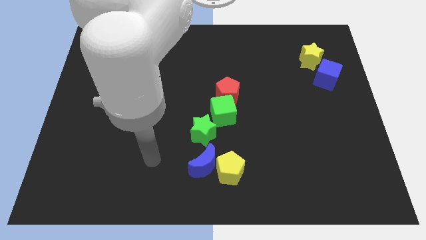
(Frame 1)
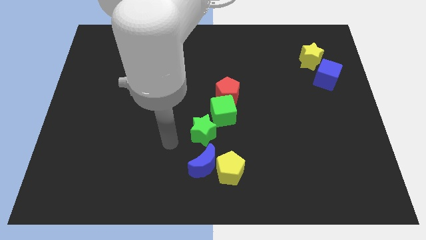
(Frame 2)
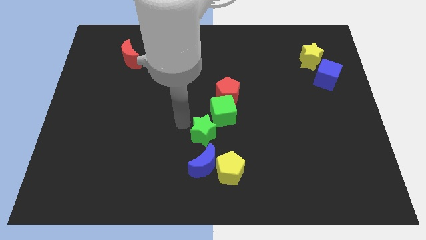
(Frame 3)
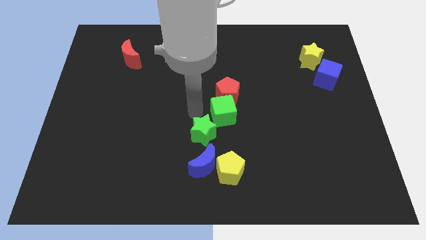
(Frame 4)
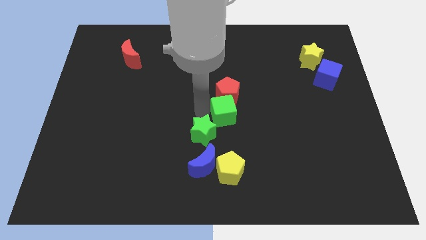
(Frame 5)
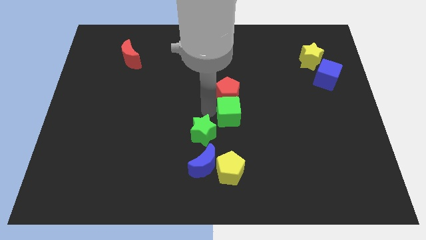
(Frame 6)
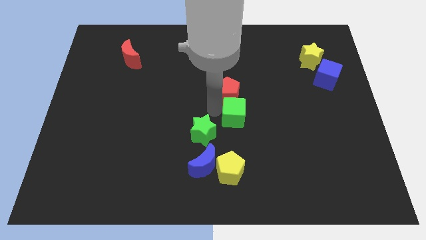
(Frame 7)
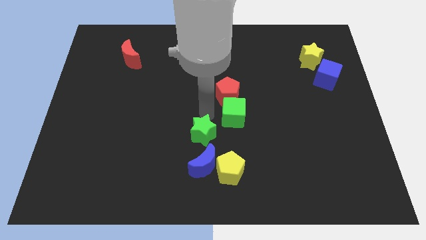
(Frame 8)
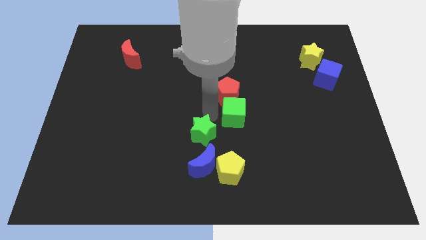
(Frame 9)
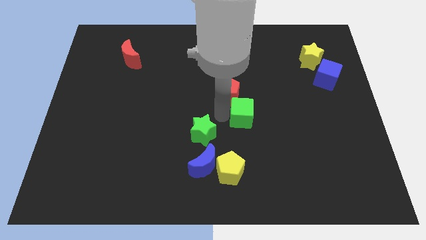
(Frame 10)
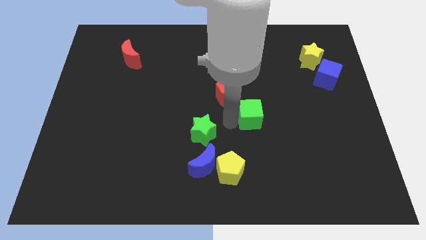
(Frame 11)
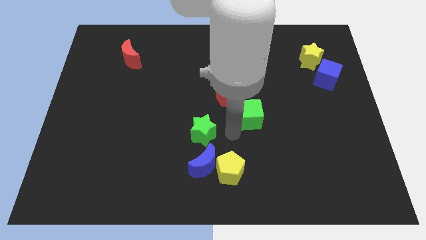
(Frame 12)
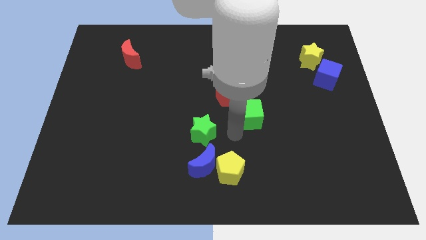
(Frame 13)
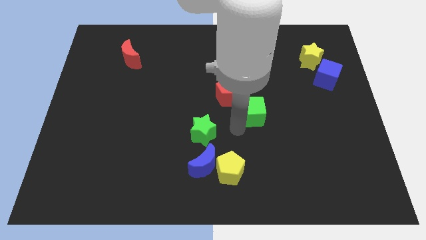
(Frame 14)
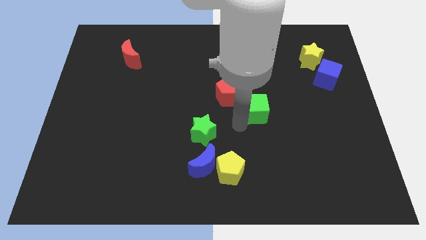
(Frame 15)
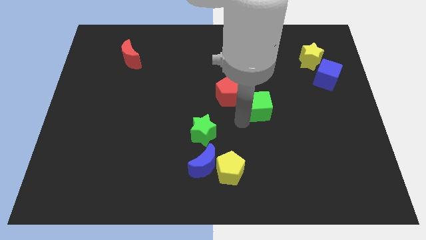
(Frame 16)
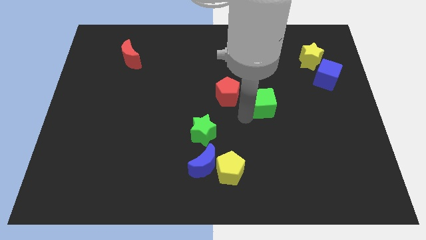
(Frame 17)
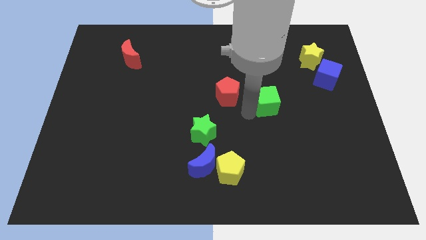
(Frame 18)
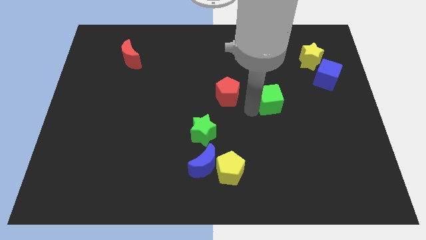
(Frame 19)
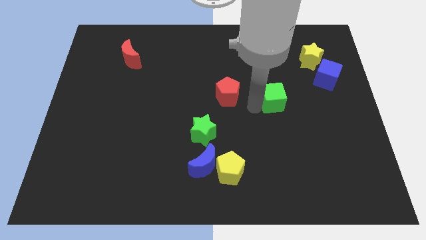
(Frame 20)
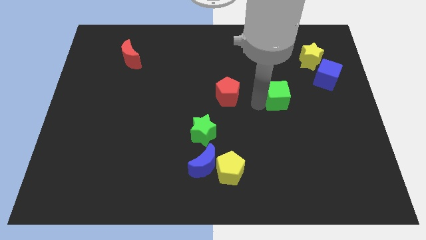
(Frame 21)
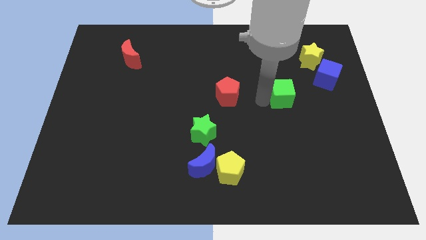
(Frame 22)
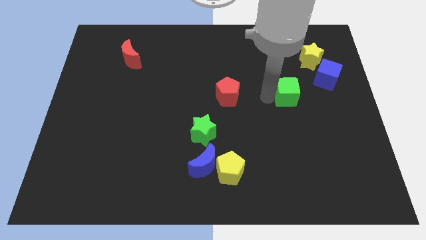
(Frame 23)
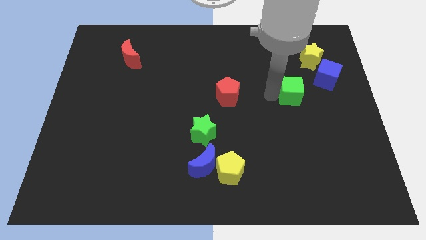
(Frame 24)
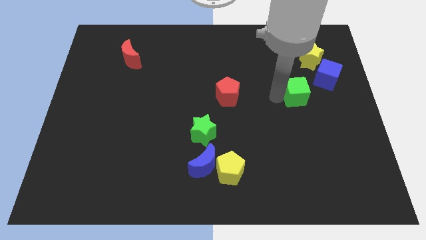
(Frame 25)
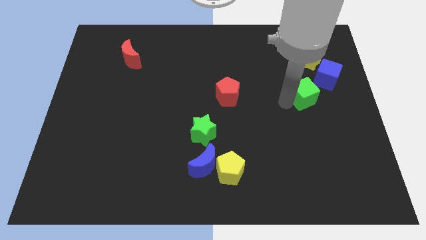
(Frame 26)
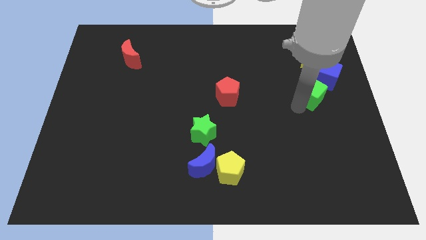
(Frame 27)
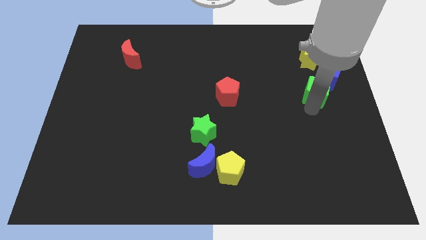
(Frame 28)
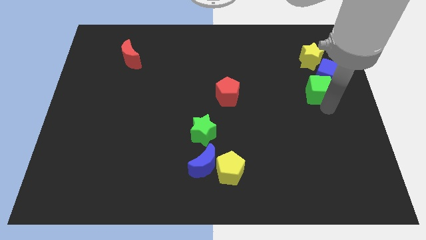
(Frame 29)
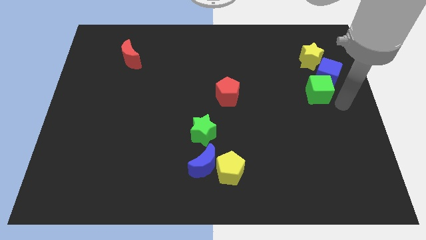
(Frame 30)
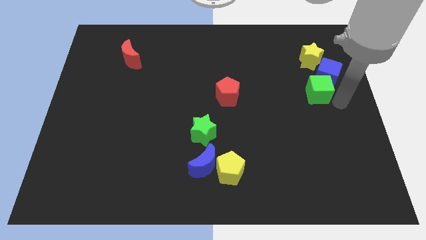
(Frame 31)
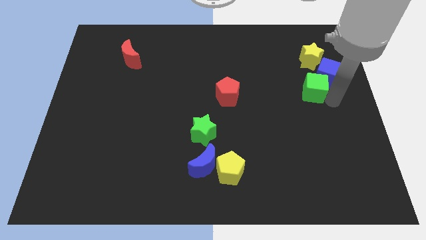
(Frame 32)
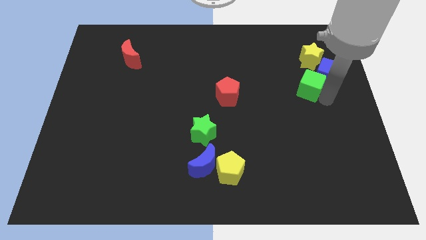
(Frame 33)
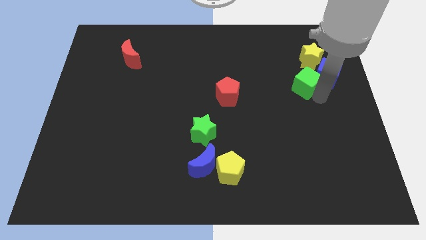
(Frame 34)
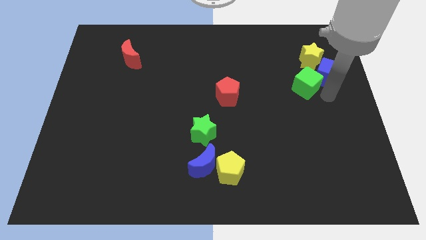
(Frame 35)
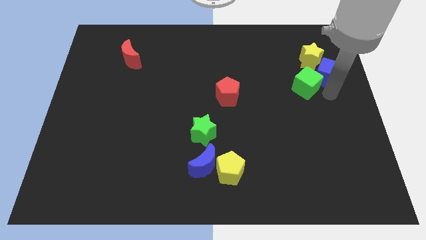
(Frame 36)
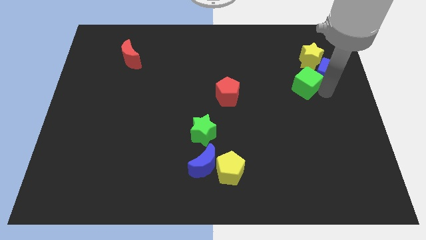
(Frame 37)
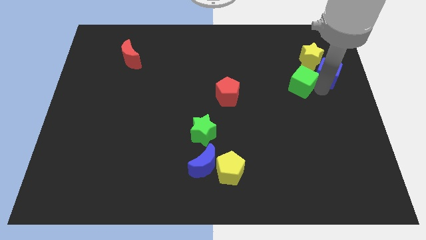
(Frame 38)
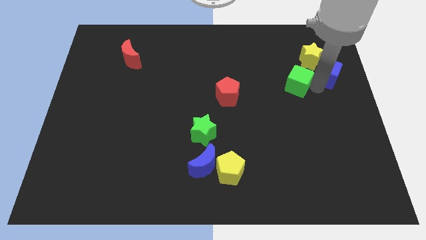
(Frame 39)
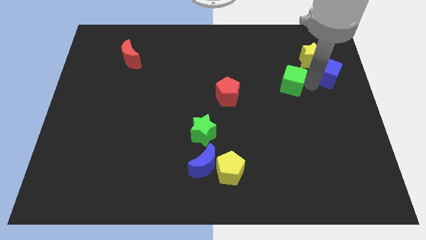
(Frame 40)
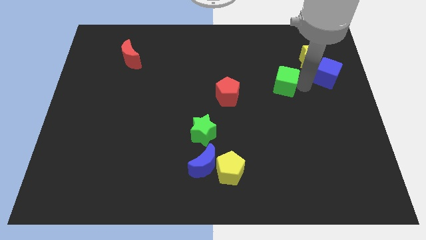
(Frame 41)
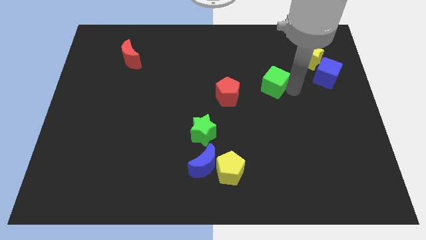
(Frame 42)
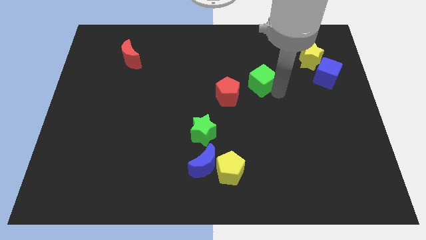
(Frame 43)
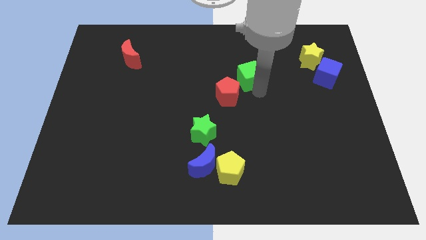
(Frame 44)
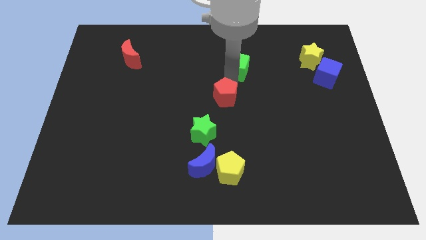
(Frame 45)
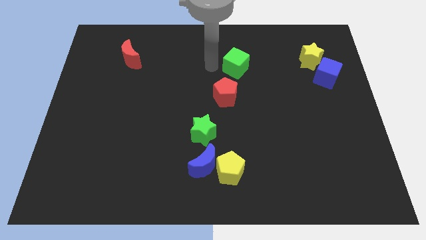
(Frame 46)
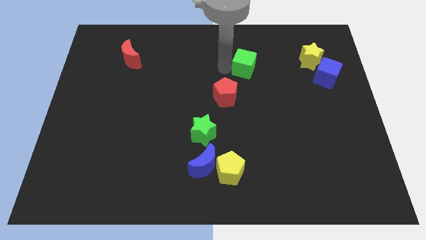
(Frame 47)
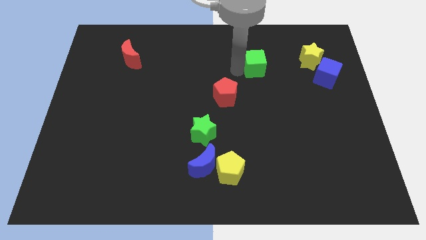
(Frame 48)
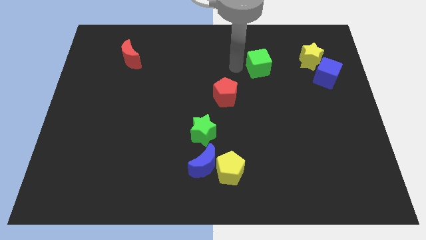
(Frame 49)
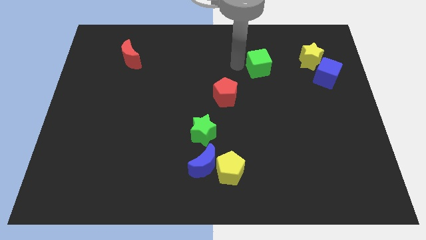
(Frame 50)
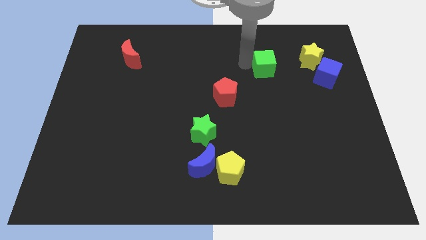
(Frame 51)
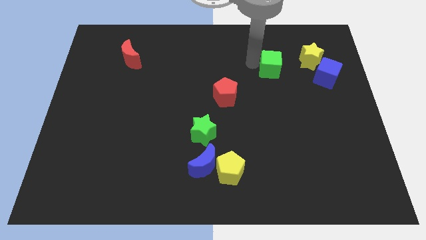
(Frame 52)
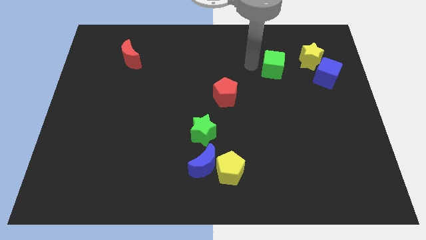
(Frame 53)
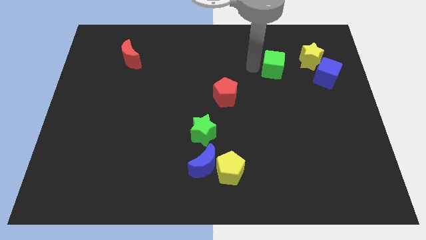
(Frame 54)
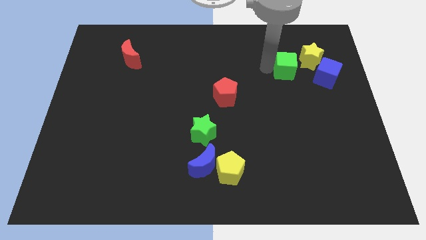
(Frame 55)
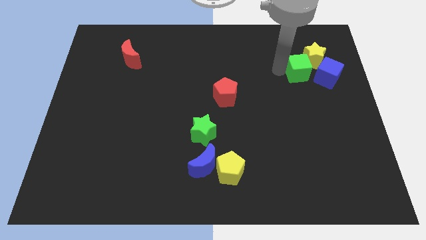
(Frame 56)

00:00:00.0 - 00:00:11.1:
slide the green cube next to the yellow star

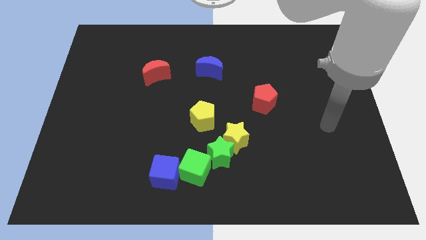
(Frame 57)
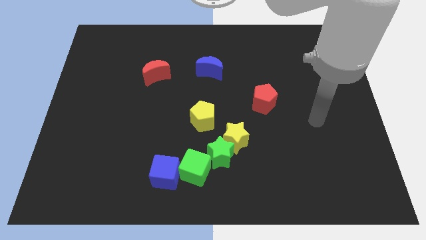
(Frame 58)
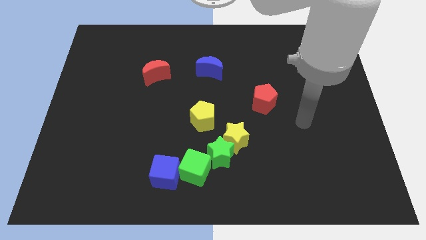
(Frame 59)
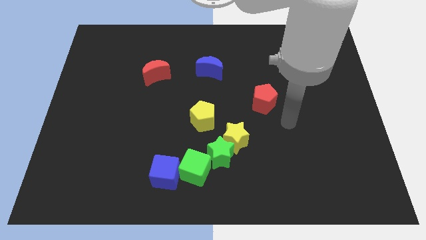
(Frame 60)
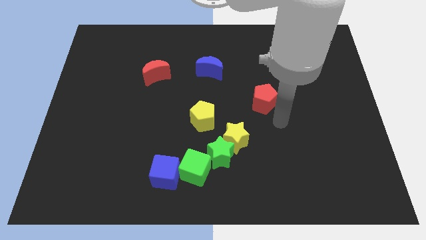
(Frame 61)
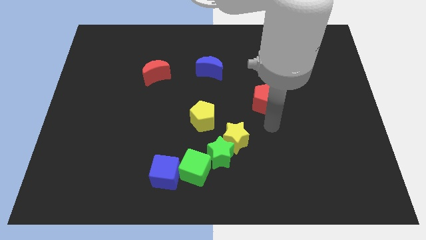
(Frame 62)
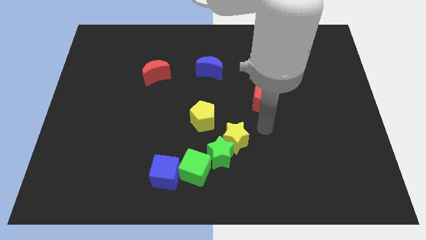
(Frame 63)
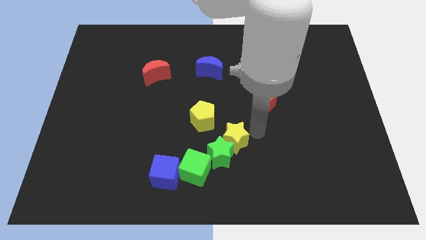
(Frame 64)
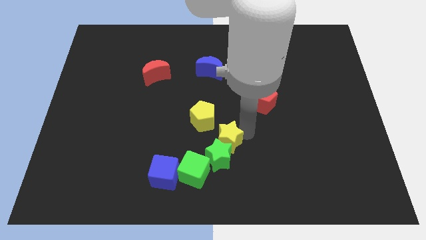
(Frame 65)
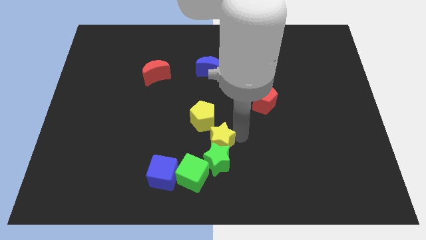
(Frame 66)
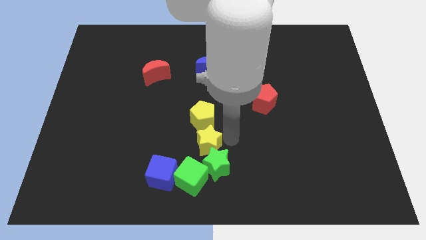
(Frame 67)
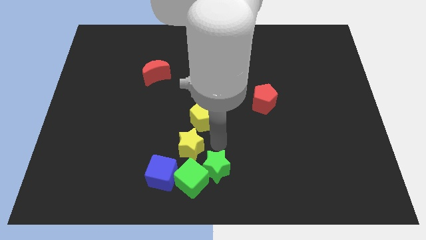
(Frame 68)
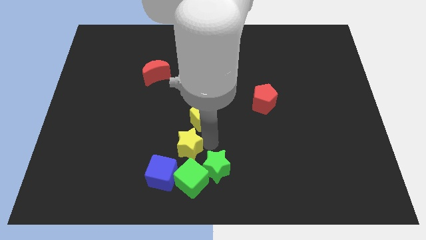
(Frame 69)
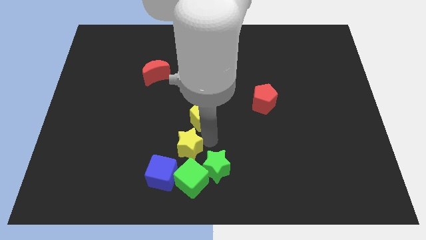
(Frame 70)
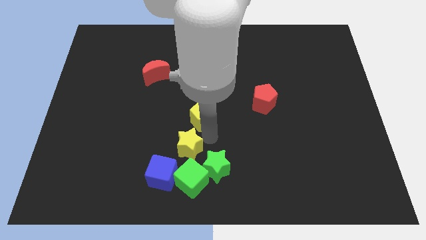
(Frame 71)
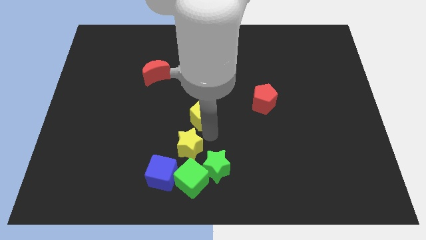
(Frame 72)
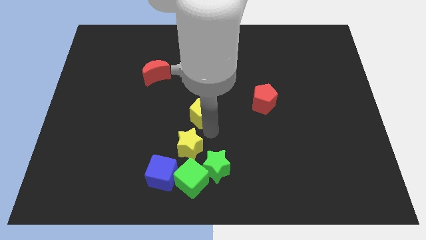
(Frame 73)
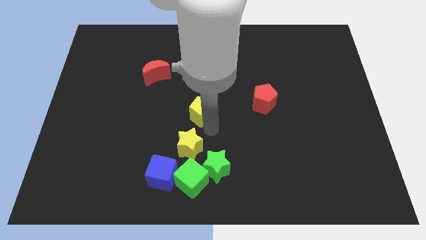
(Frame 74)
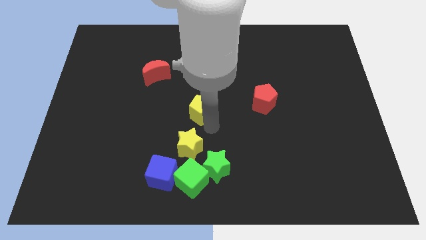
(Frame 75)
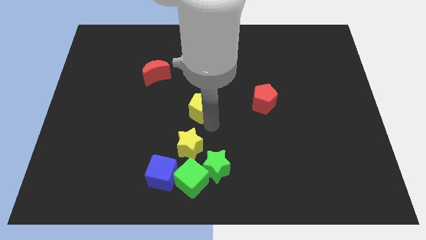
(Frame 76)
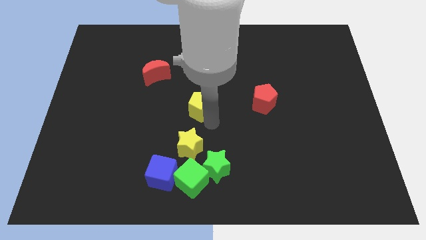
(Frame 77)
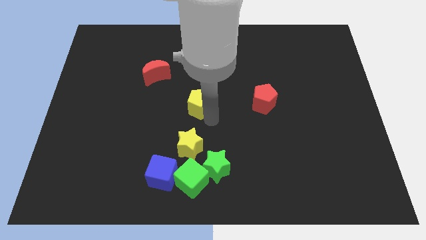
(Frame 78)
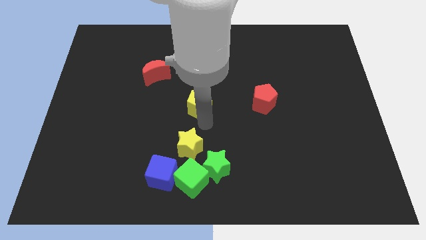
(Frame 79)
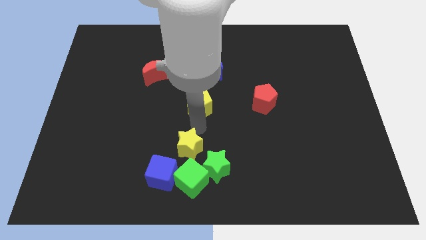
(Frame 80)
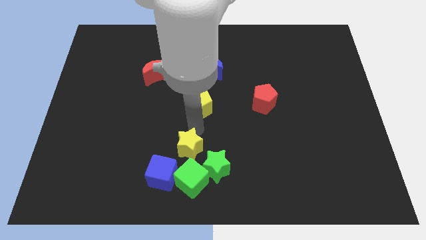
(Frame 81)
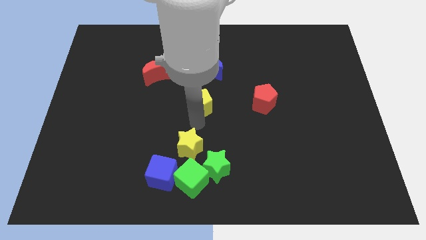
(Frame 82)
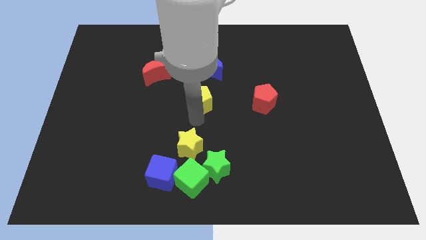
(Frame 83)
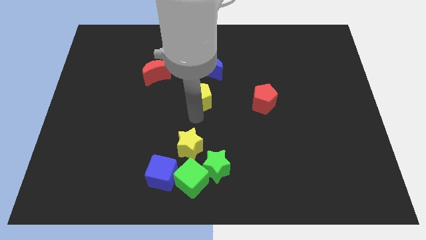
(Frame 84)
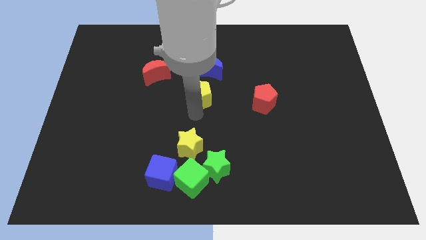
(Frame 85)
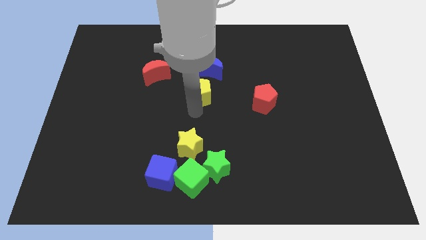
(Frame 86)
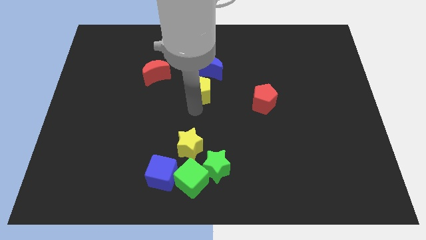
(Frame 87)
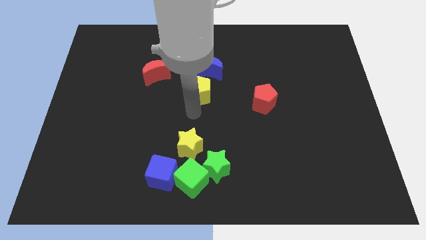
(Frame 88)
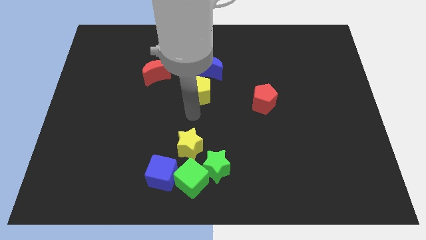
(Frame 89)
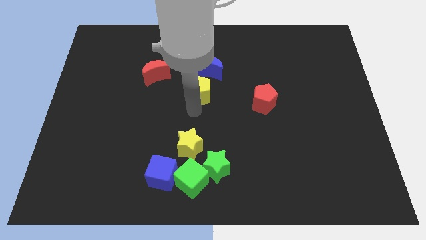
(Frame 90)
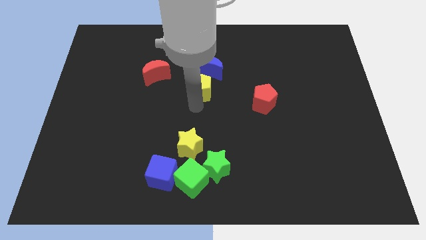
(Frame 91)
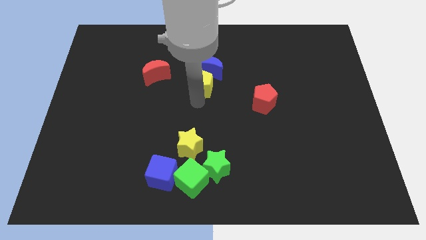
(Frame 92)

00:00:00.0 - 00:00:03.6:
push the yellow pentagon to the blue moon
